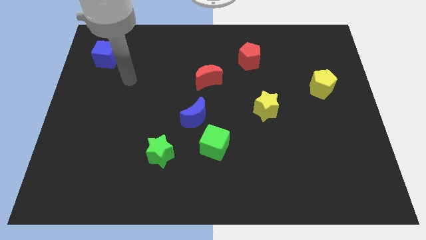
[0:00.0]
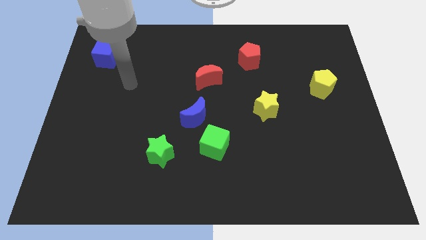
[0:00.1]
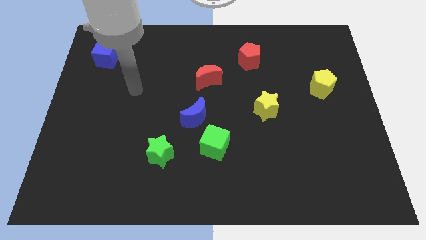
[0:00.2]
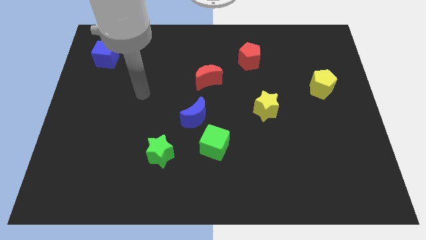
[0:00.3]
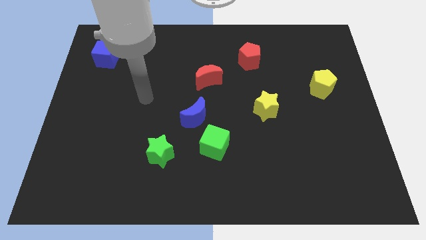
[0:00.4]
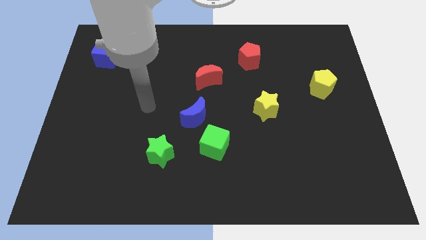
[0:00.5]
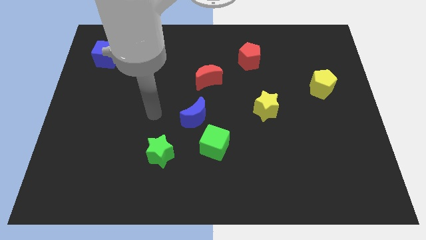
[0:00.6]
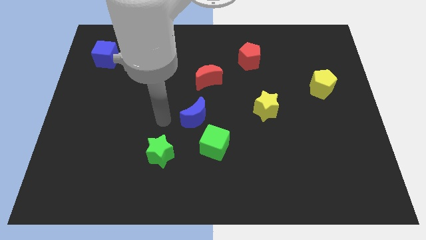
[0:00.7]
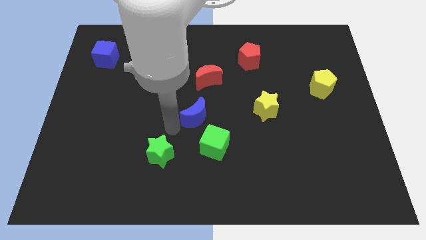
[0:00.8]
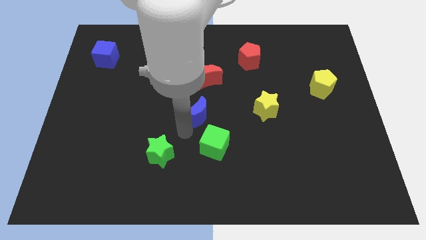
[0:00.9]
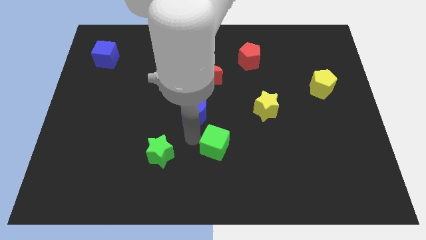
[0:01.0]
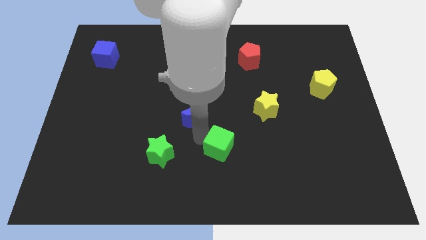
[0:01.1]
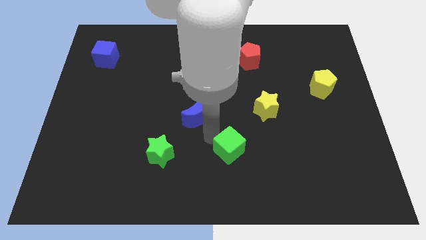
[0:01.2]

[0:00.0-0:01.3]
move the blue moon away from the green cube

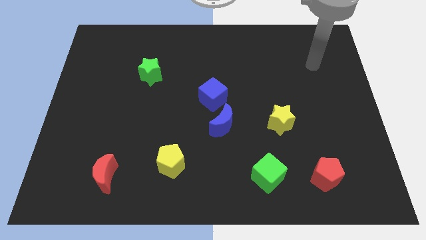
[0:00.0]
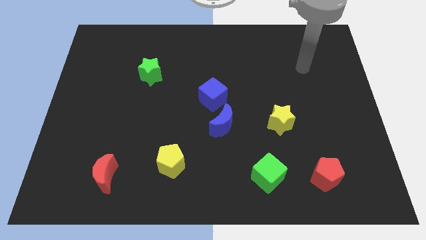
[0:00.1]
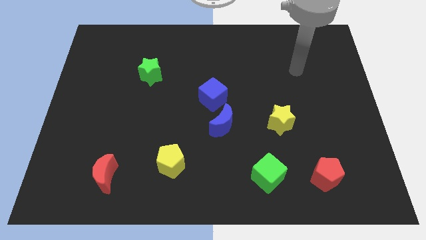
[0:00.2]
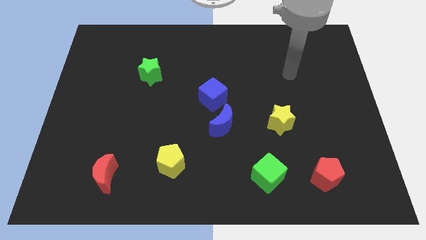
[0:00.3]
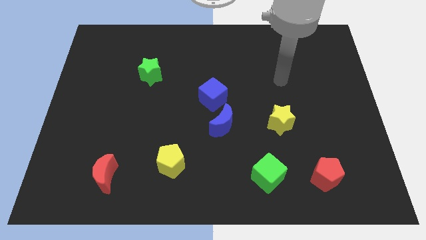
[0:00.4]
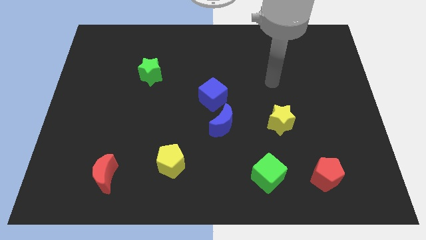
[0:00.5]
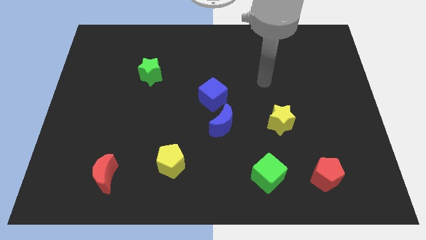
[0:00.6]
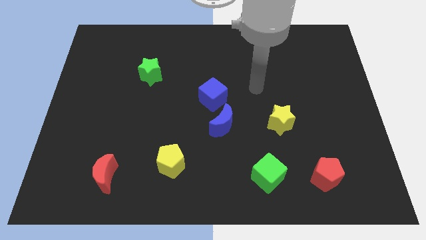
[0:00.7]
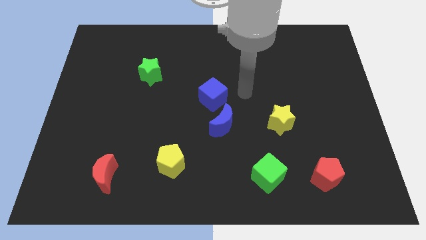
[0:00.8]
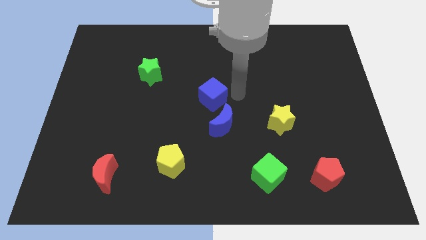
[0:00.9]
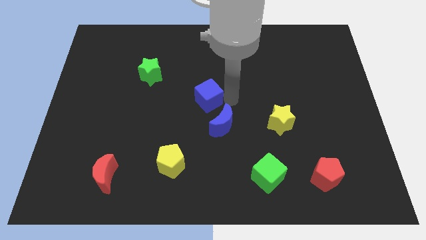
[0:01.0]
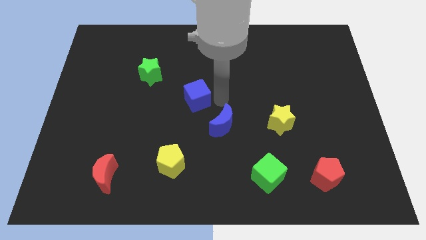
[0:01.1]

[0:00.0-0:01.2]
pull the blue moon apart from the blue cube

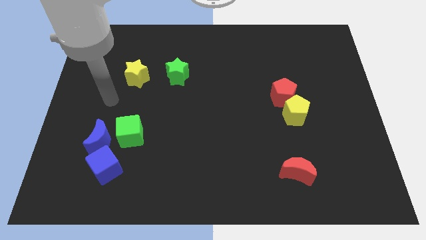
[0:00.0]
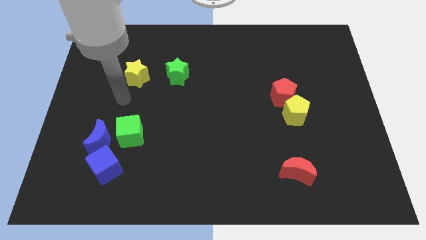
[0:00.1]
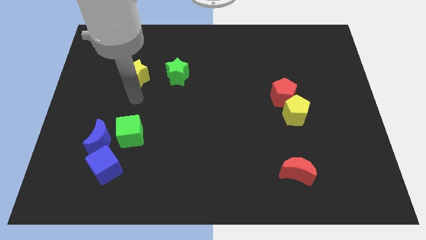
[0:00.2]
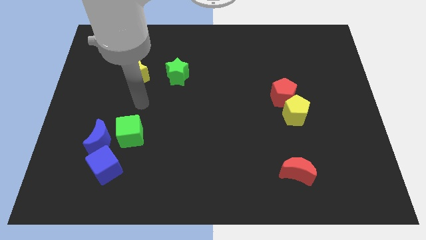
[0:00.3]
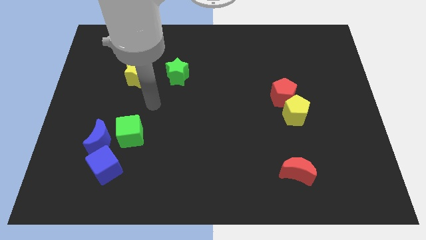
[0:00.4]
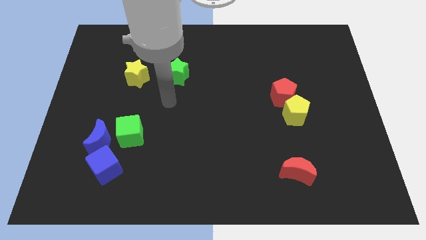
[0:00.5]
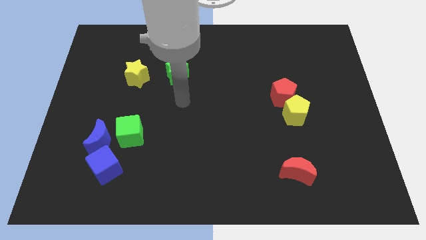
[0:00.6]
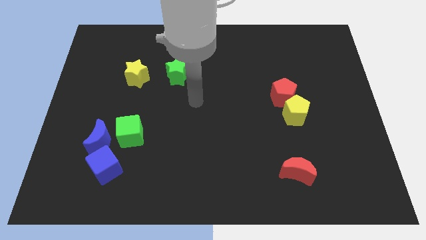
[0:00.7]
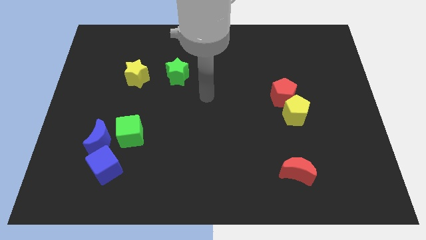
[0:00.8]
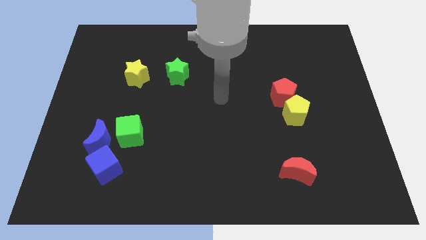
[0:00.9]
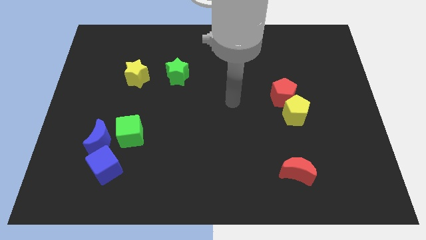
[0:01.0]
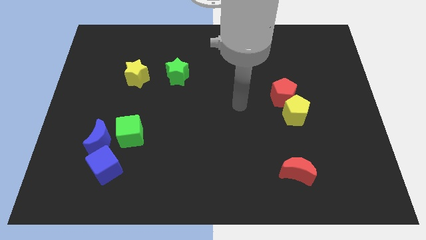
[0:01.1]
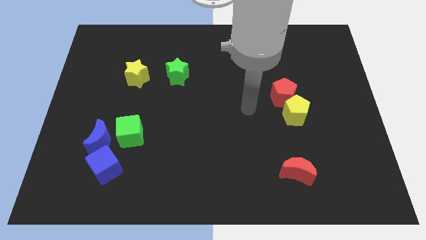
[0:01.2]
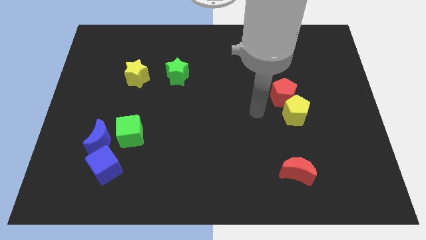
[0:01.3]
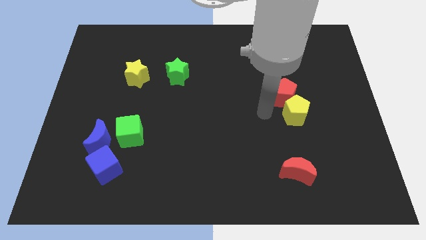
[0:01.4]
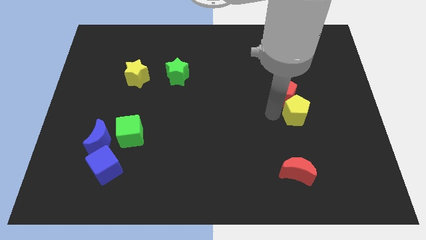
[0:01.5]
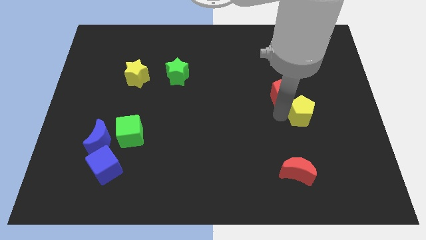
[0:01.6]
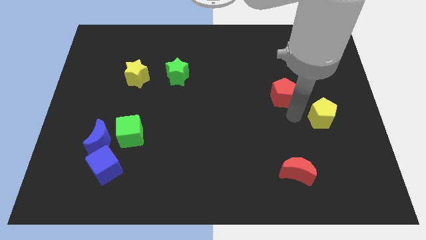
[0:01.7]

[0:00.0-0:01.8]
move the red pentagon away from the yellow pentagon

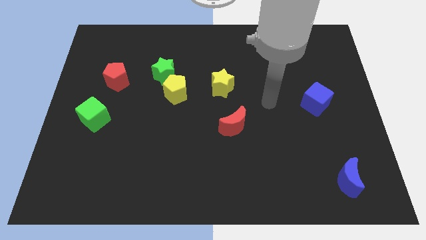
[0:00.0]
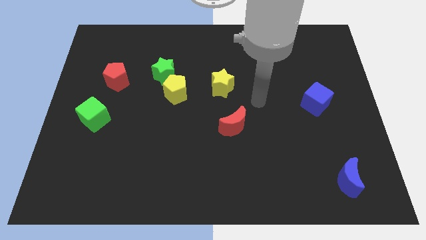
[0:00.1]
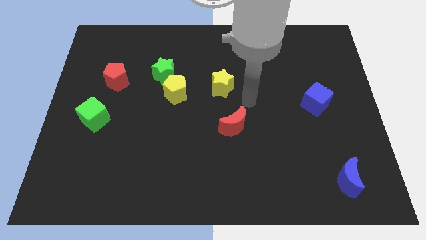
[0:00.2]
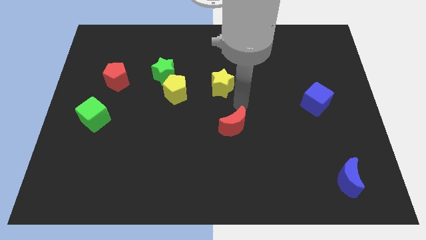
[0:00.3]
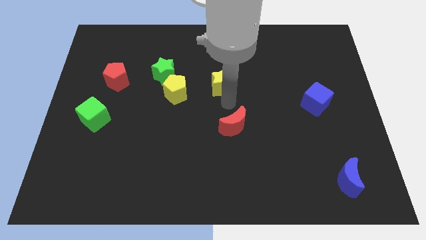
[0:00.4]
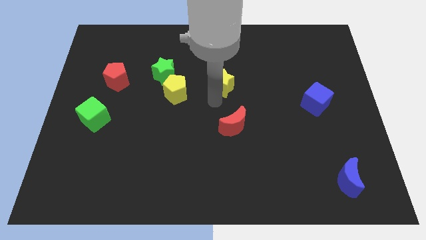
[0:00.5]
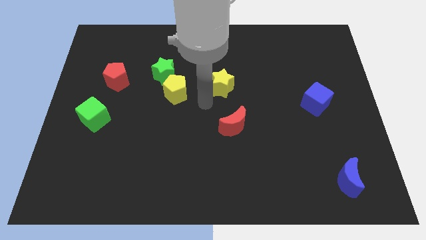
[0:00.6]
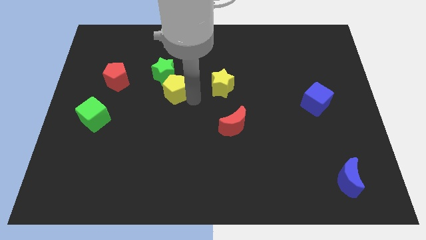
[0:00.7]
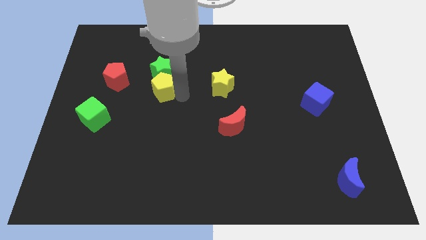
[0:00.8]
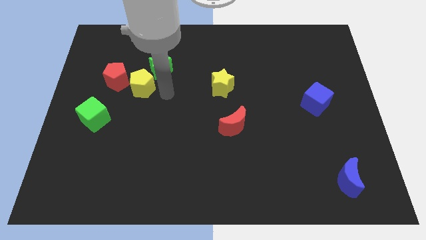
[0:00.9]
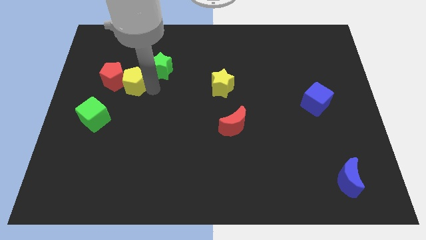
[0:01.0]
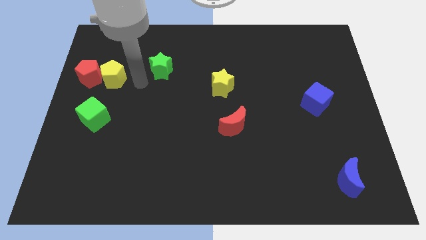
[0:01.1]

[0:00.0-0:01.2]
move the green star away from the yellow pentagon

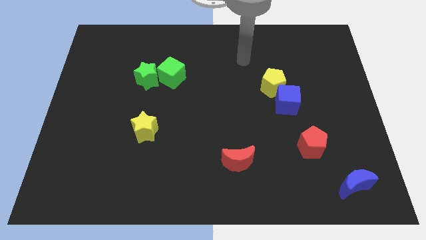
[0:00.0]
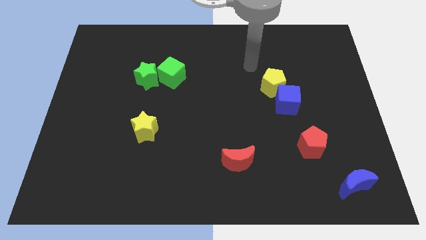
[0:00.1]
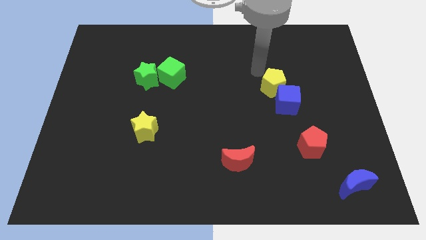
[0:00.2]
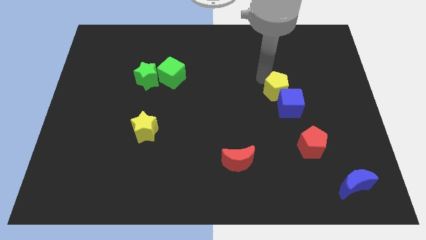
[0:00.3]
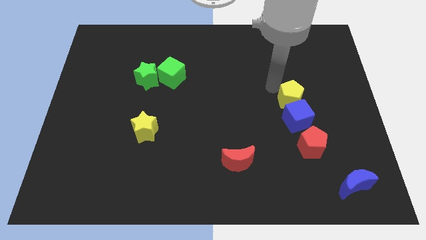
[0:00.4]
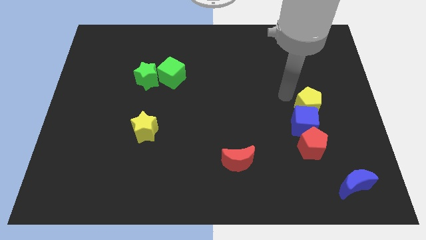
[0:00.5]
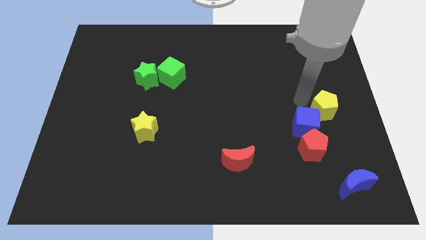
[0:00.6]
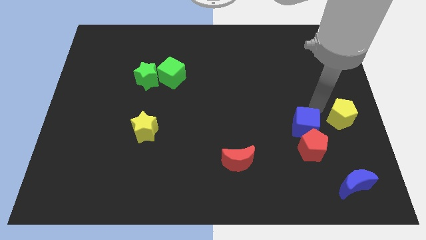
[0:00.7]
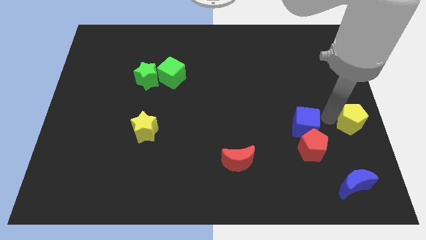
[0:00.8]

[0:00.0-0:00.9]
separate the blue cube from the yellow pentagon

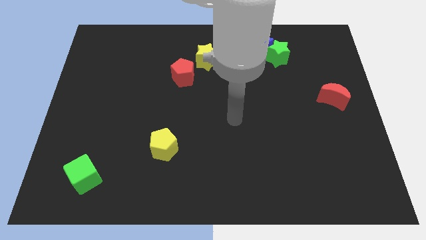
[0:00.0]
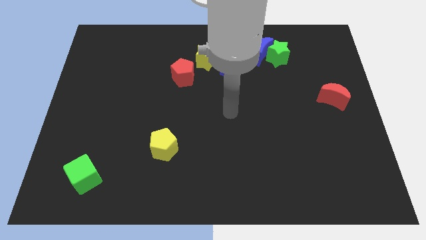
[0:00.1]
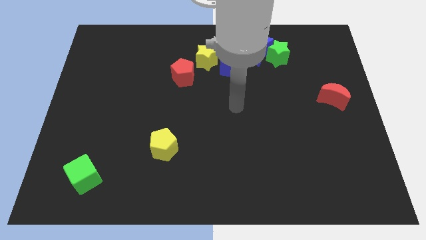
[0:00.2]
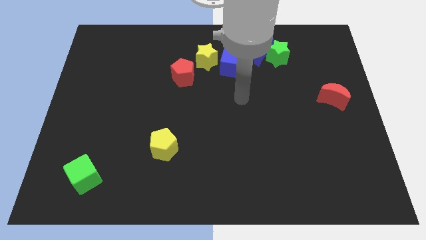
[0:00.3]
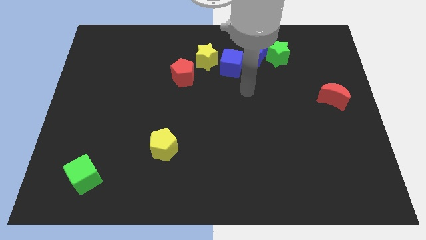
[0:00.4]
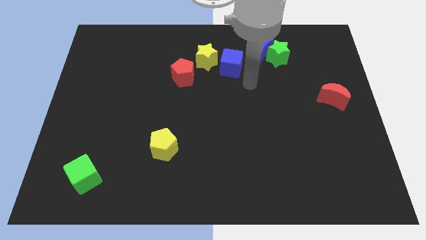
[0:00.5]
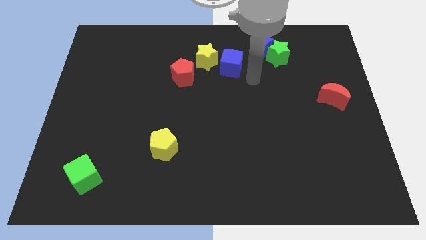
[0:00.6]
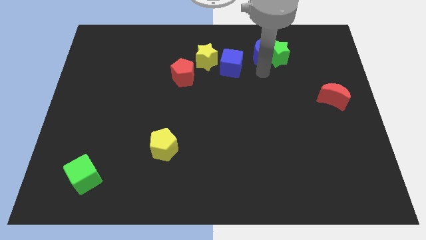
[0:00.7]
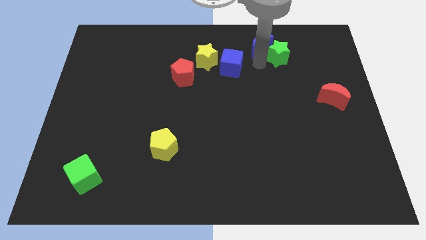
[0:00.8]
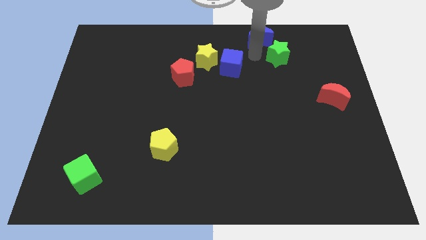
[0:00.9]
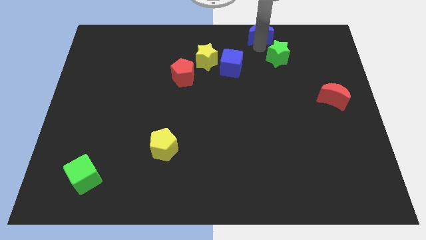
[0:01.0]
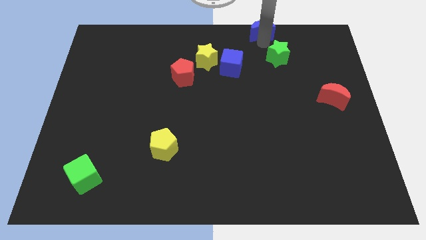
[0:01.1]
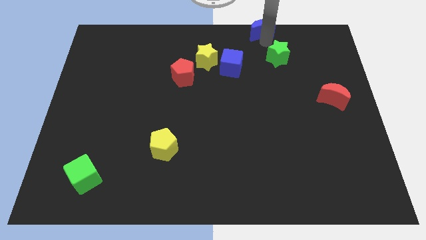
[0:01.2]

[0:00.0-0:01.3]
move the green star away from the blue moon

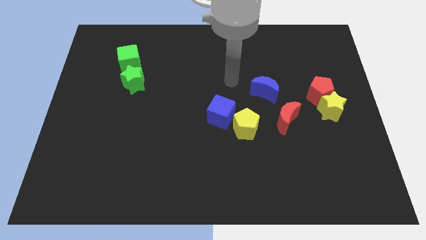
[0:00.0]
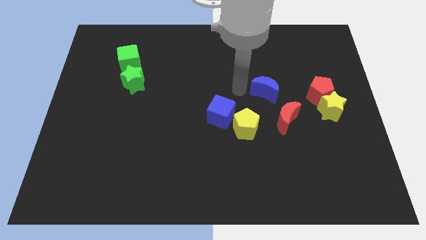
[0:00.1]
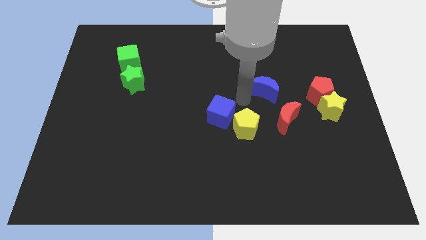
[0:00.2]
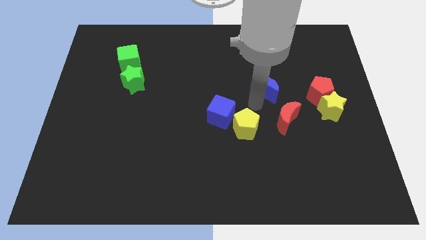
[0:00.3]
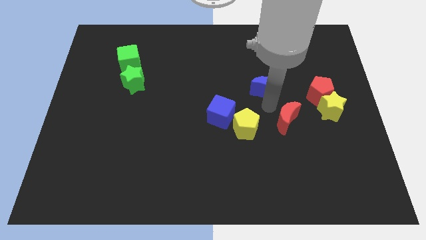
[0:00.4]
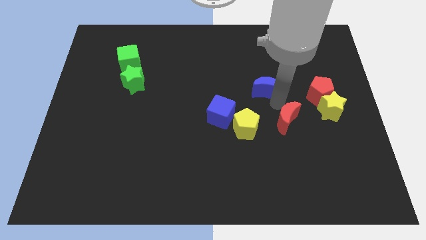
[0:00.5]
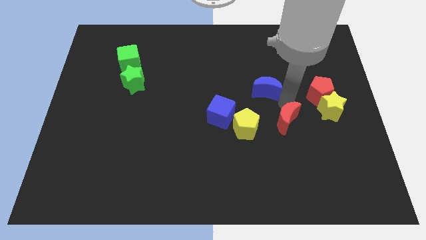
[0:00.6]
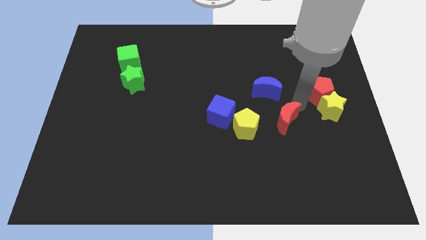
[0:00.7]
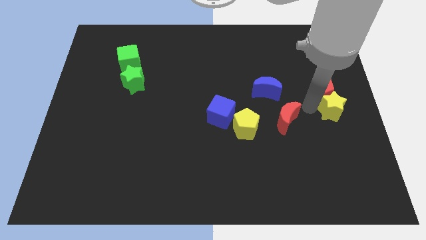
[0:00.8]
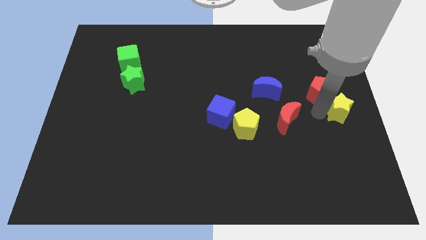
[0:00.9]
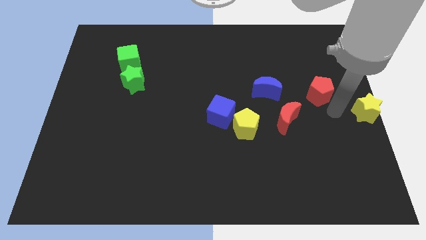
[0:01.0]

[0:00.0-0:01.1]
pull the red pentagon apart from the yellow star

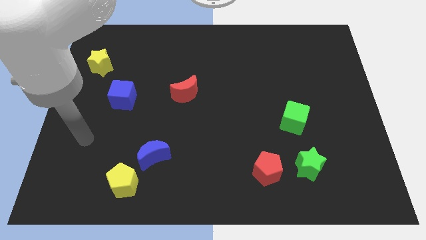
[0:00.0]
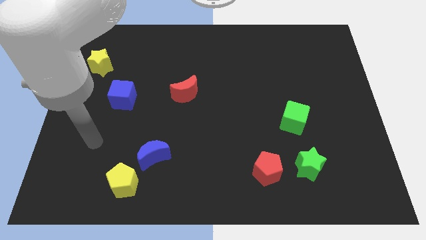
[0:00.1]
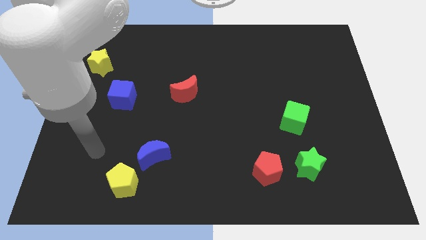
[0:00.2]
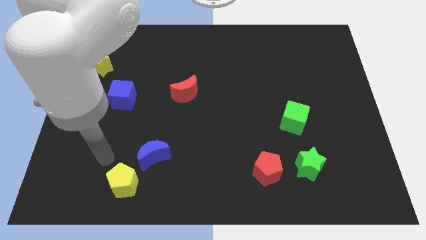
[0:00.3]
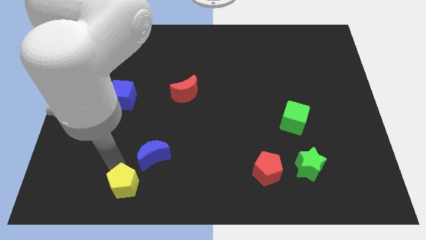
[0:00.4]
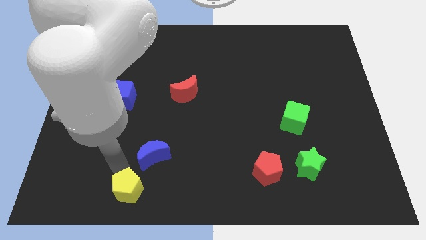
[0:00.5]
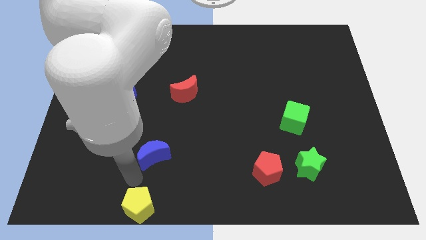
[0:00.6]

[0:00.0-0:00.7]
separate the blue moon from the yellow pentagon
